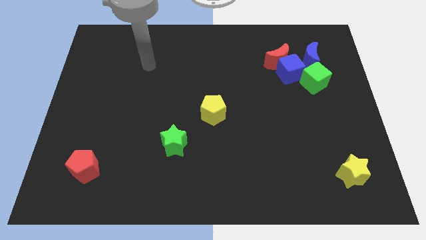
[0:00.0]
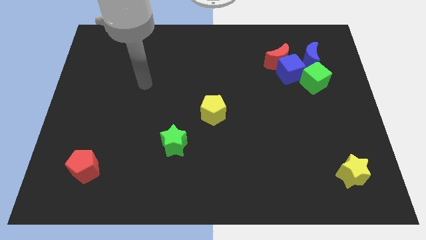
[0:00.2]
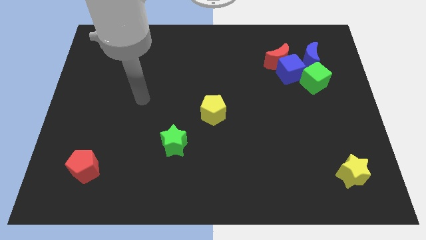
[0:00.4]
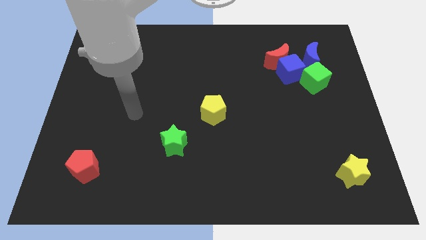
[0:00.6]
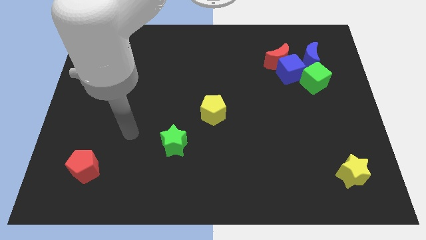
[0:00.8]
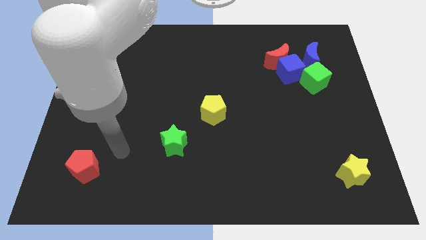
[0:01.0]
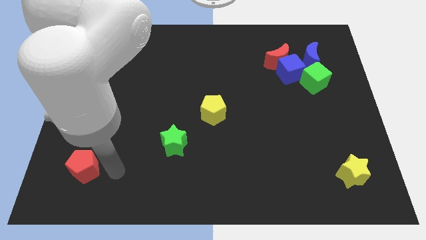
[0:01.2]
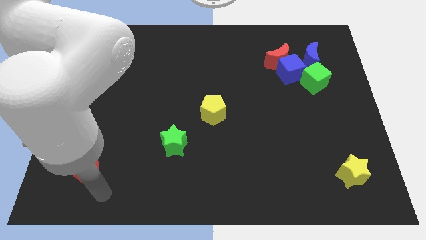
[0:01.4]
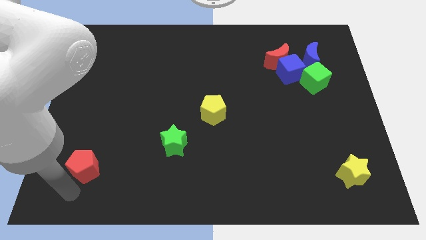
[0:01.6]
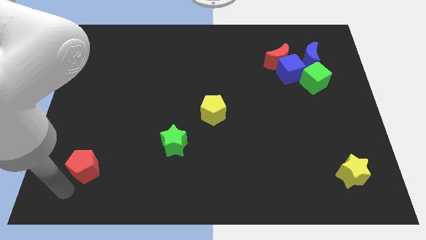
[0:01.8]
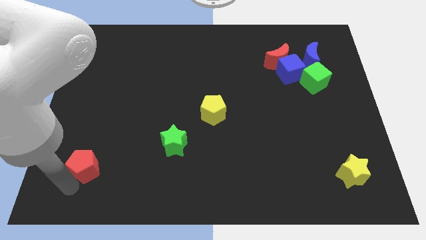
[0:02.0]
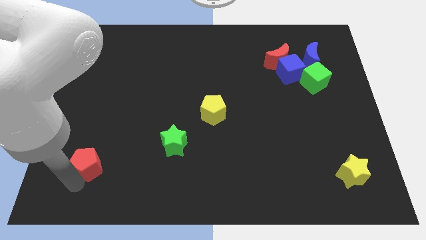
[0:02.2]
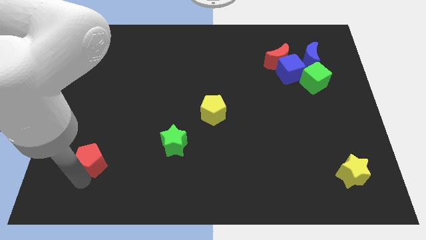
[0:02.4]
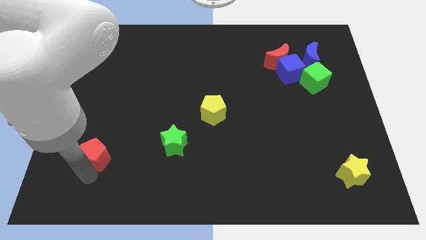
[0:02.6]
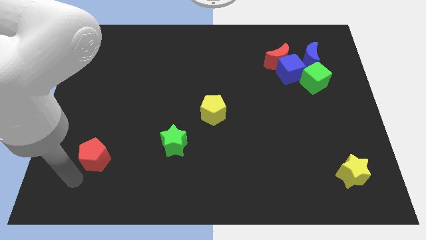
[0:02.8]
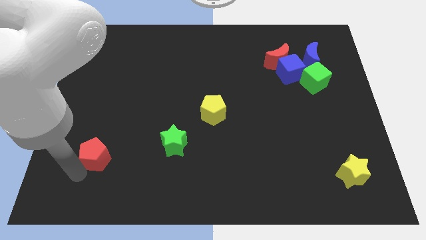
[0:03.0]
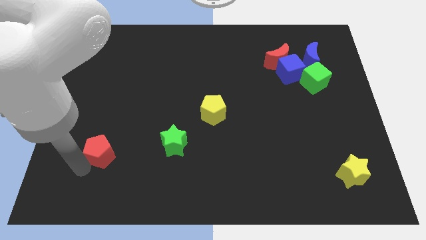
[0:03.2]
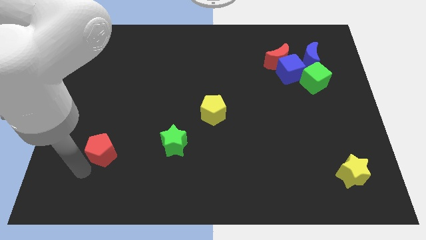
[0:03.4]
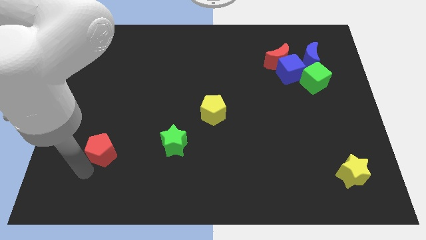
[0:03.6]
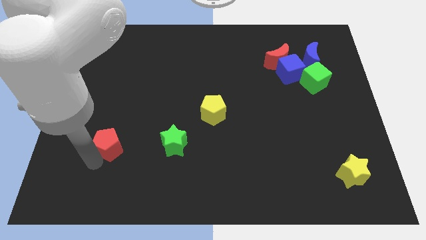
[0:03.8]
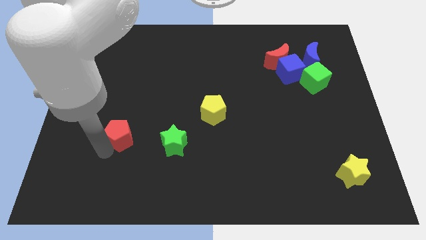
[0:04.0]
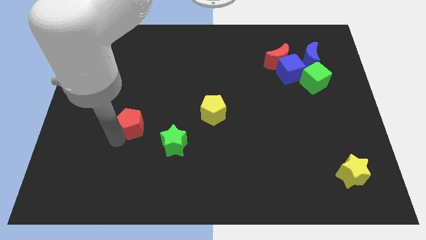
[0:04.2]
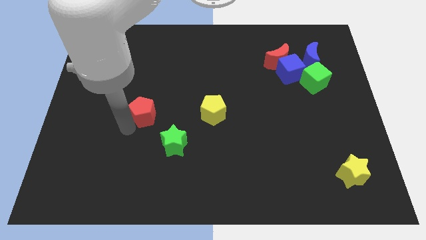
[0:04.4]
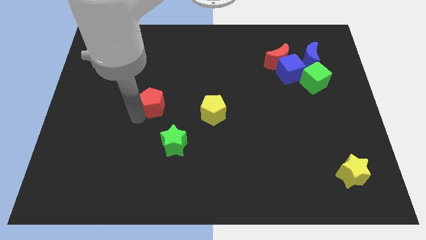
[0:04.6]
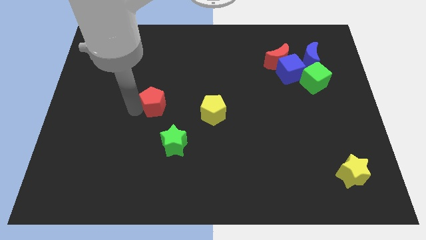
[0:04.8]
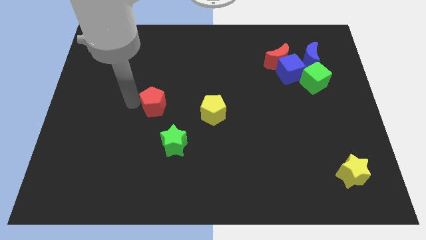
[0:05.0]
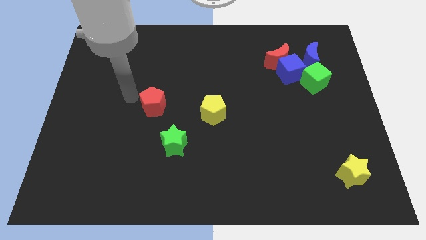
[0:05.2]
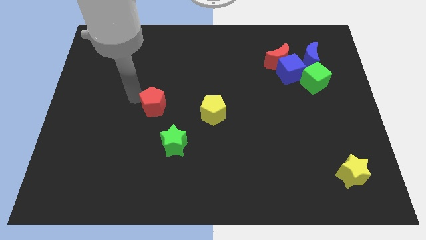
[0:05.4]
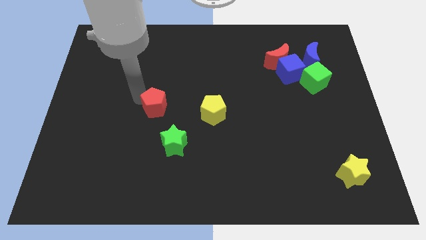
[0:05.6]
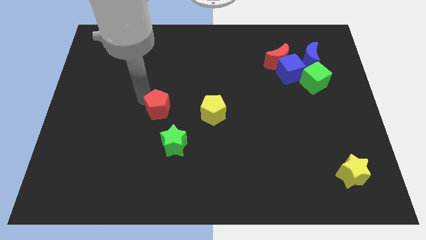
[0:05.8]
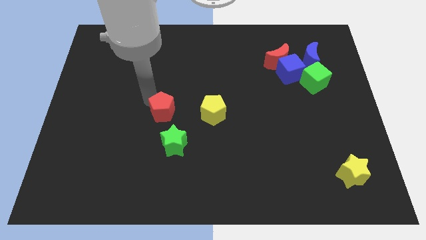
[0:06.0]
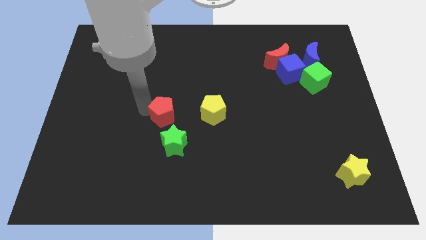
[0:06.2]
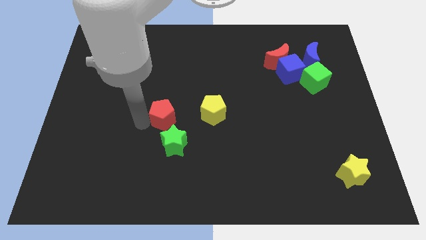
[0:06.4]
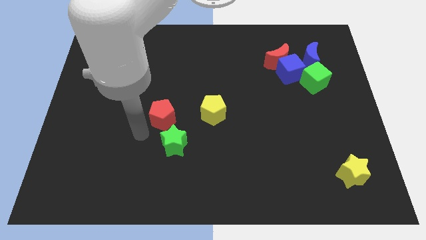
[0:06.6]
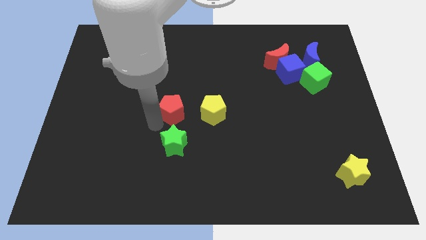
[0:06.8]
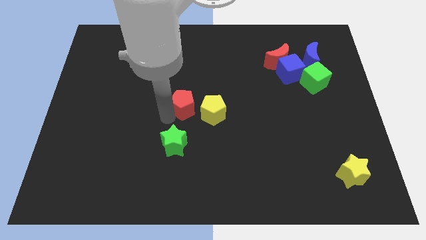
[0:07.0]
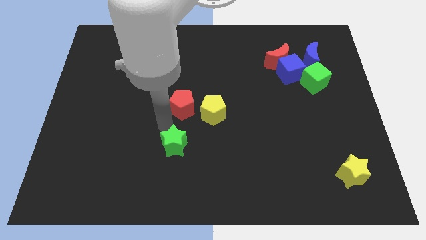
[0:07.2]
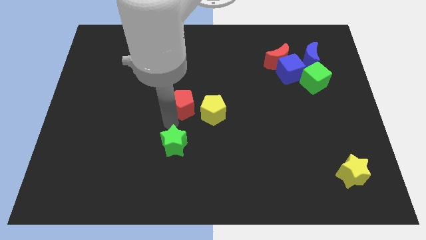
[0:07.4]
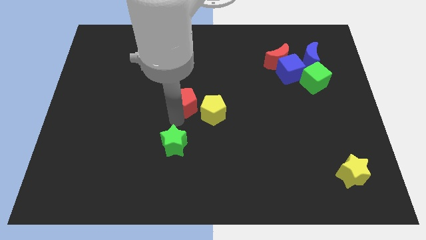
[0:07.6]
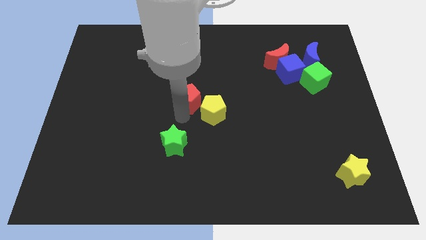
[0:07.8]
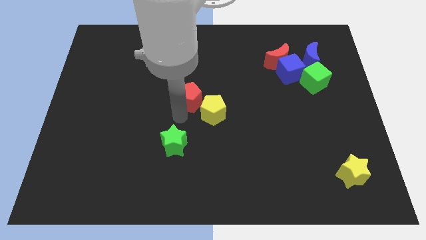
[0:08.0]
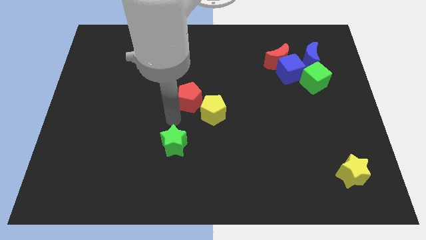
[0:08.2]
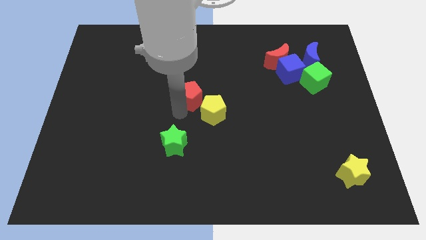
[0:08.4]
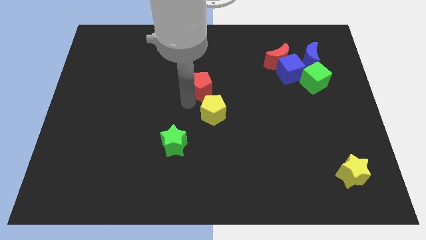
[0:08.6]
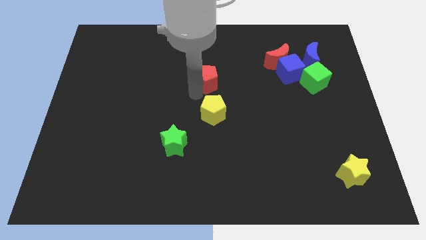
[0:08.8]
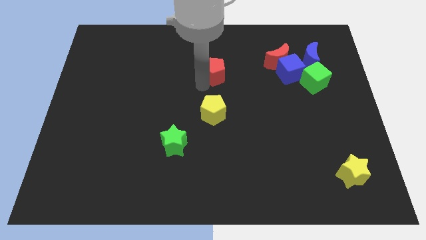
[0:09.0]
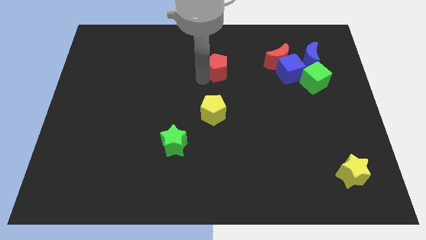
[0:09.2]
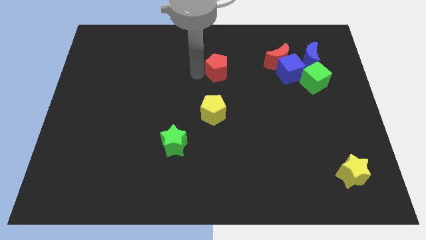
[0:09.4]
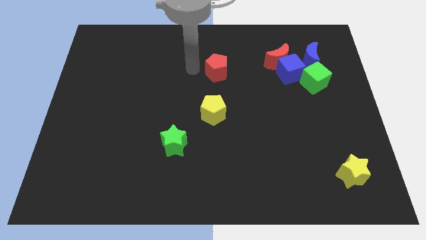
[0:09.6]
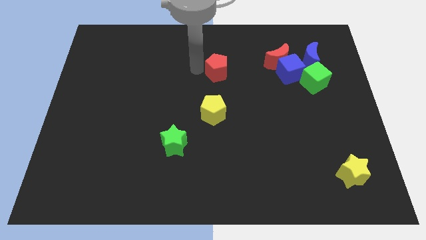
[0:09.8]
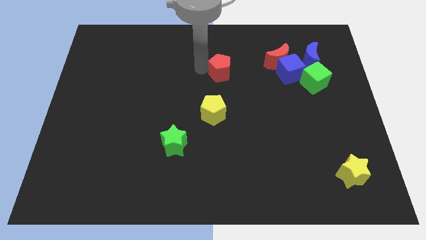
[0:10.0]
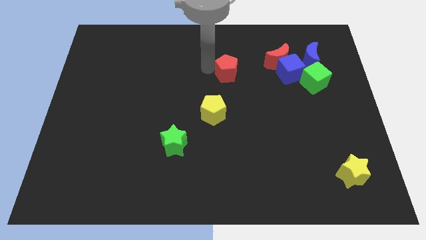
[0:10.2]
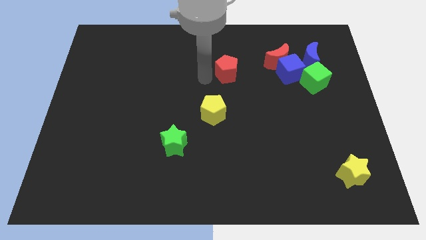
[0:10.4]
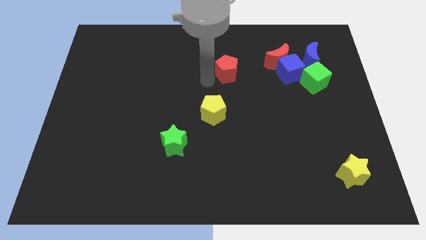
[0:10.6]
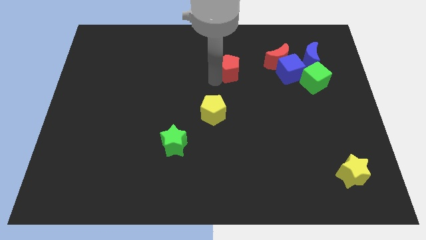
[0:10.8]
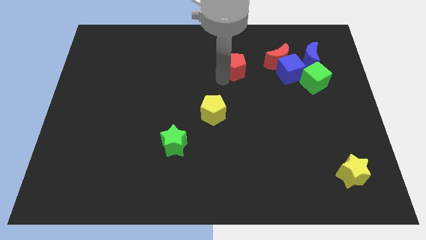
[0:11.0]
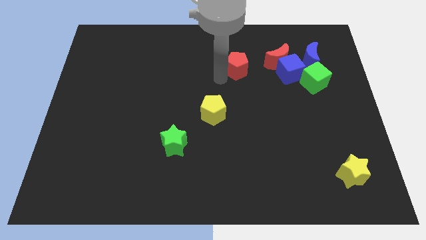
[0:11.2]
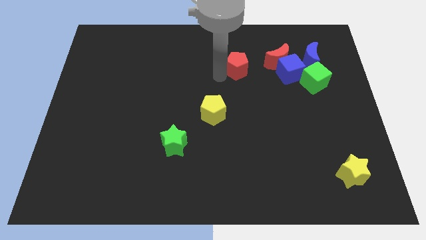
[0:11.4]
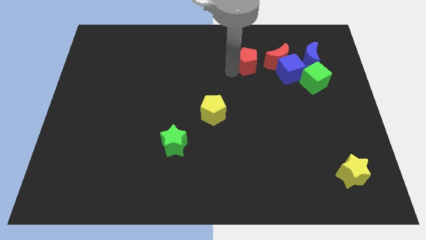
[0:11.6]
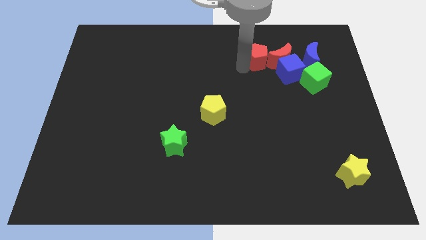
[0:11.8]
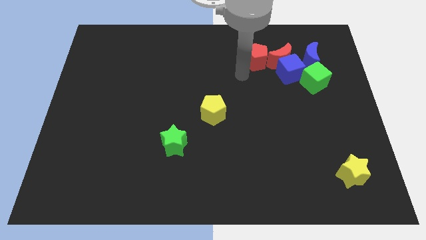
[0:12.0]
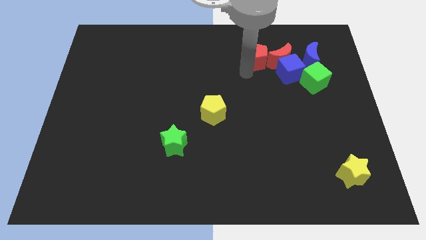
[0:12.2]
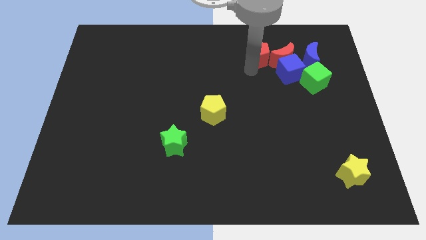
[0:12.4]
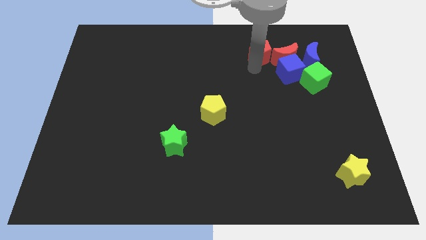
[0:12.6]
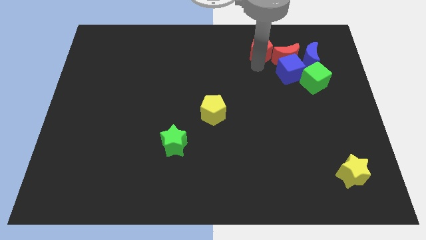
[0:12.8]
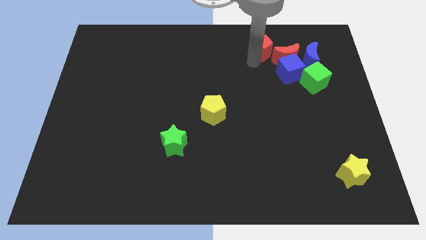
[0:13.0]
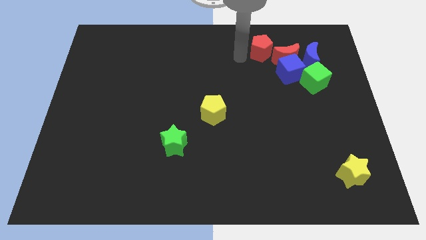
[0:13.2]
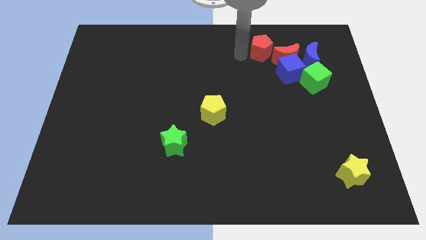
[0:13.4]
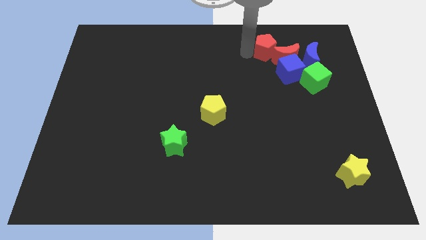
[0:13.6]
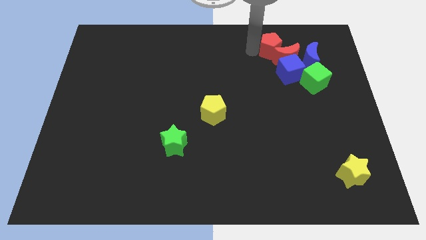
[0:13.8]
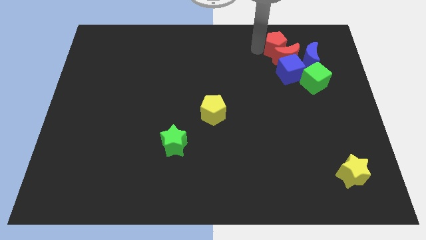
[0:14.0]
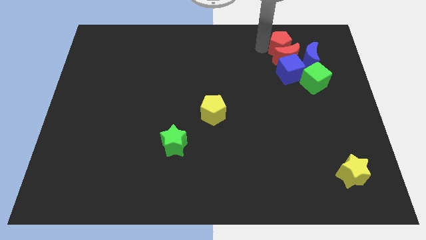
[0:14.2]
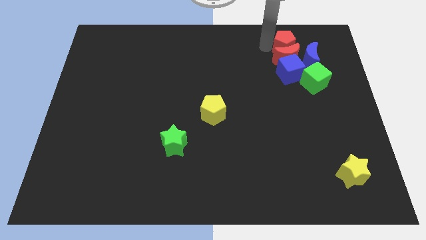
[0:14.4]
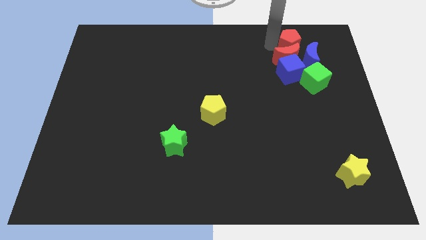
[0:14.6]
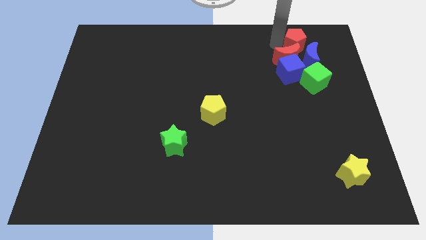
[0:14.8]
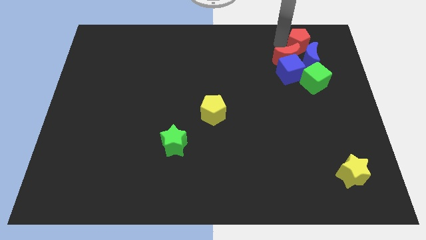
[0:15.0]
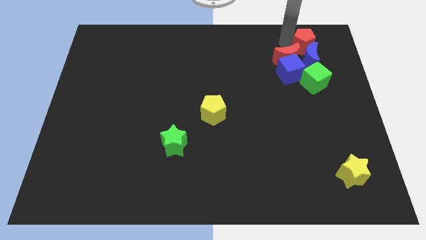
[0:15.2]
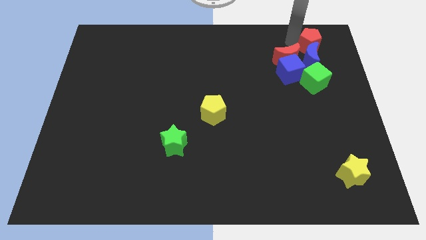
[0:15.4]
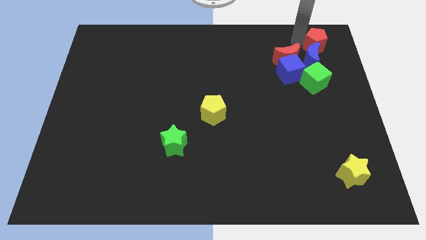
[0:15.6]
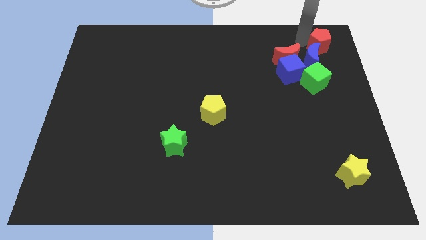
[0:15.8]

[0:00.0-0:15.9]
move the red pentagon to the top right
